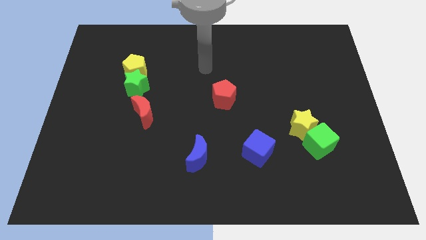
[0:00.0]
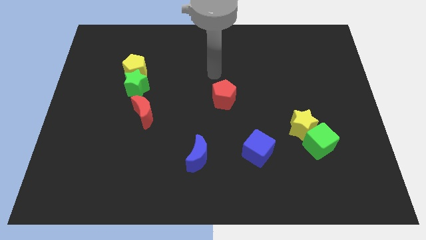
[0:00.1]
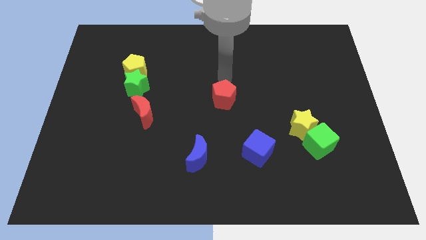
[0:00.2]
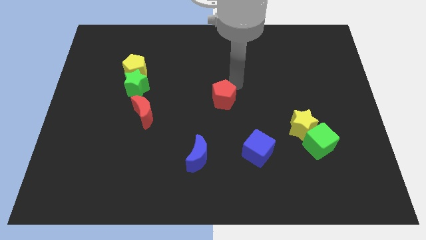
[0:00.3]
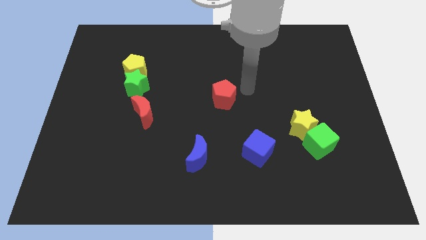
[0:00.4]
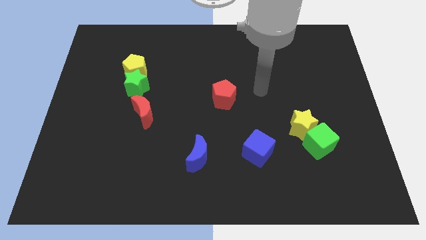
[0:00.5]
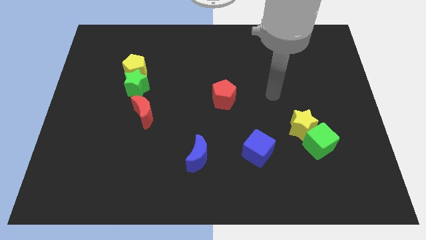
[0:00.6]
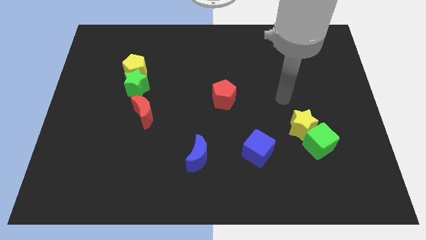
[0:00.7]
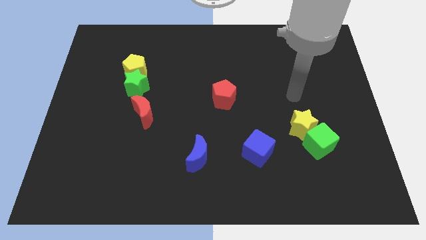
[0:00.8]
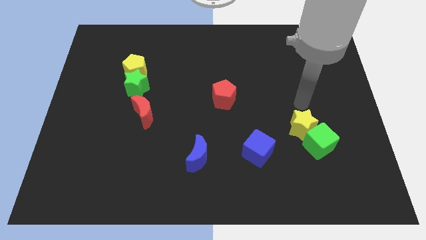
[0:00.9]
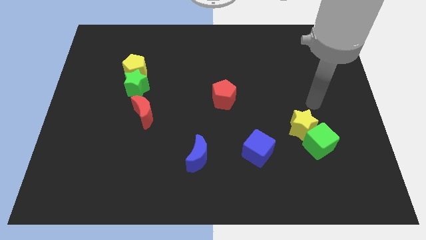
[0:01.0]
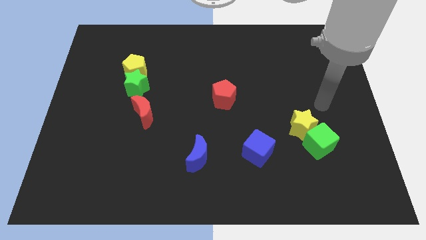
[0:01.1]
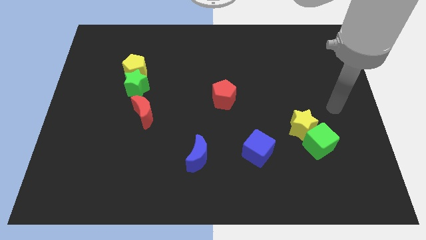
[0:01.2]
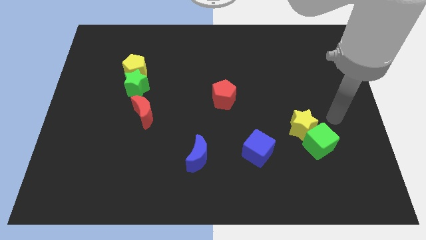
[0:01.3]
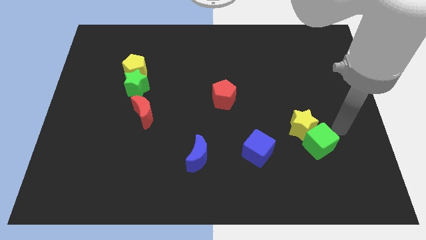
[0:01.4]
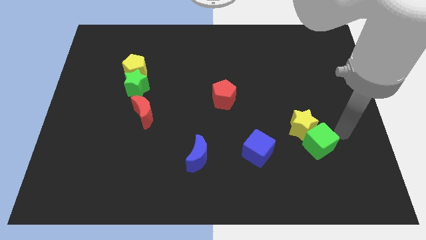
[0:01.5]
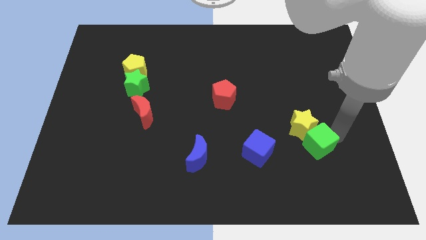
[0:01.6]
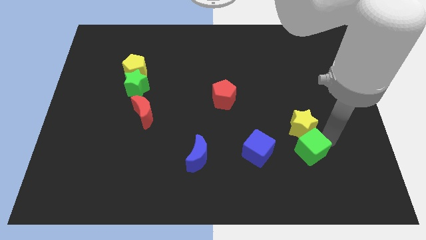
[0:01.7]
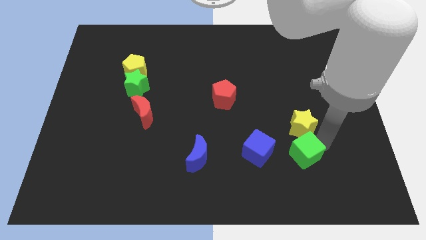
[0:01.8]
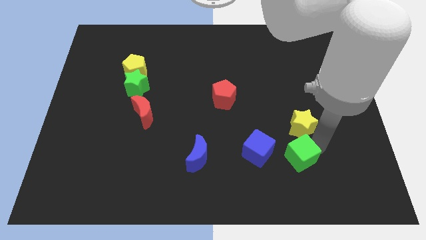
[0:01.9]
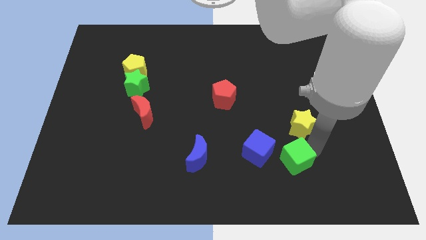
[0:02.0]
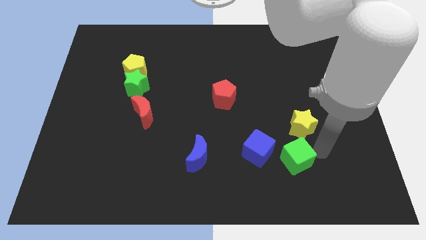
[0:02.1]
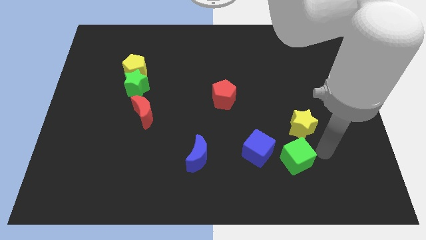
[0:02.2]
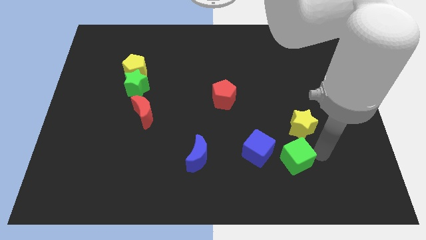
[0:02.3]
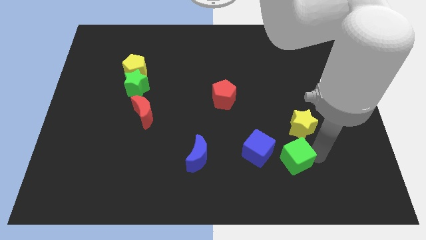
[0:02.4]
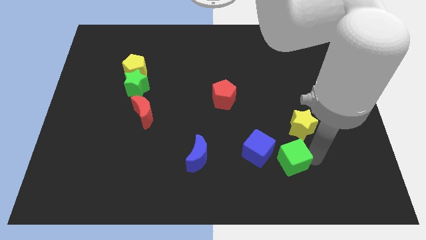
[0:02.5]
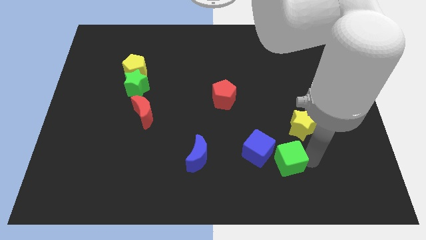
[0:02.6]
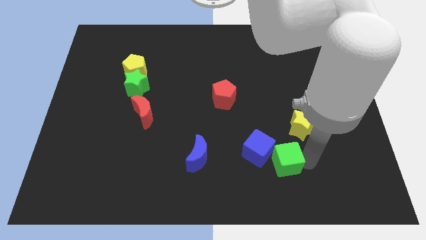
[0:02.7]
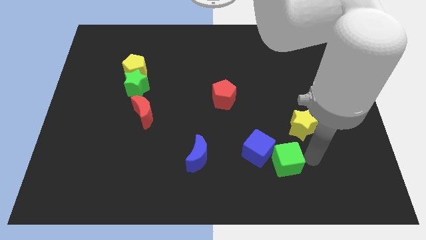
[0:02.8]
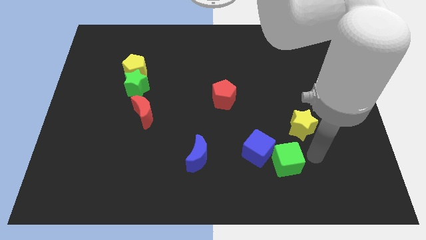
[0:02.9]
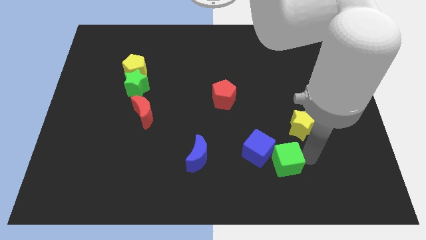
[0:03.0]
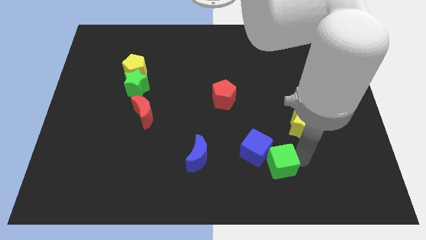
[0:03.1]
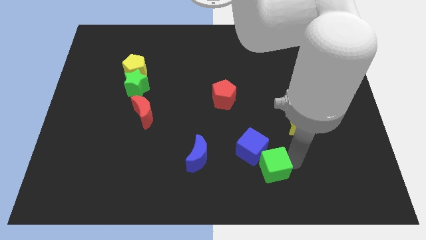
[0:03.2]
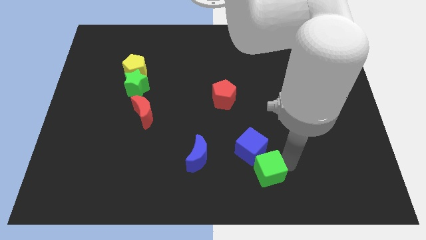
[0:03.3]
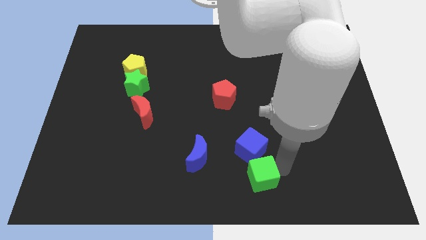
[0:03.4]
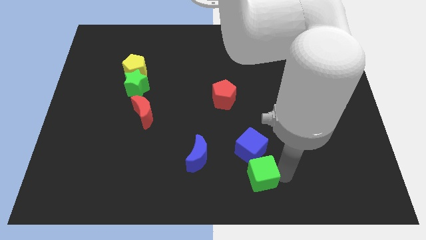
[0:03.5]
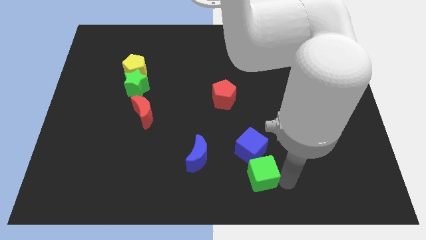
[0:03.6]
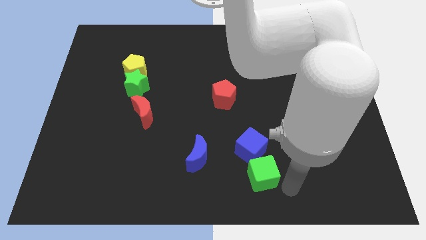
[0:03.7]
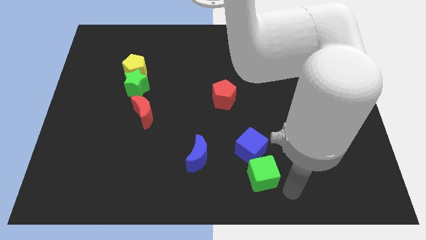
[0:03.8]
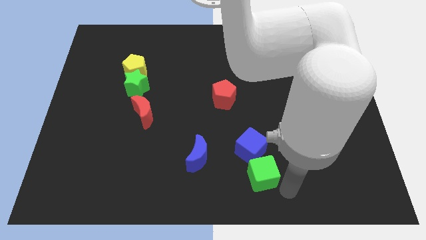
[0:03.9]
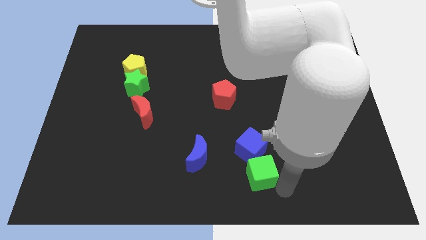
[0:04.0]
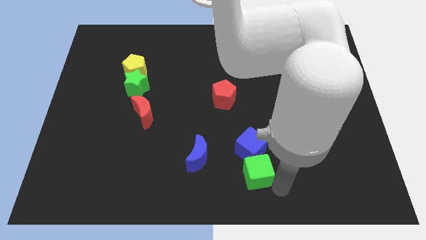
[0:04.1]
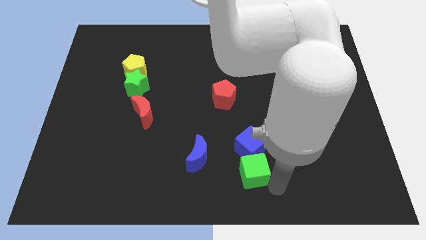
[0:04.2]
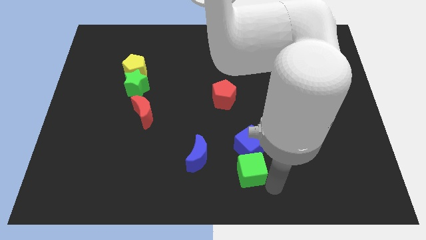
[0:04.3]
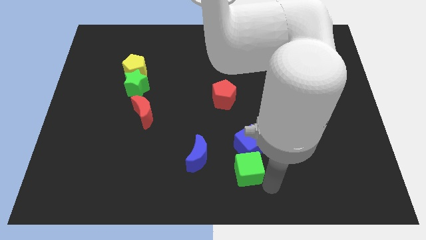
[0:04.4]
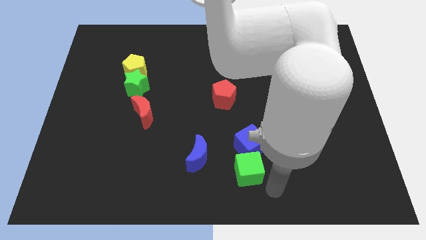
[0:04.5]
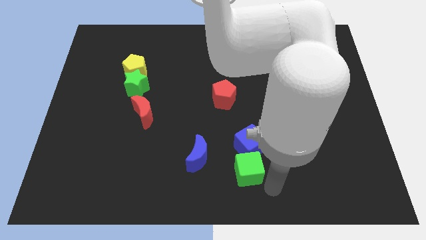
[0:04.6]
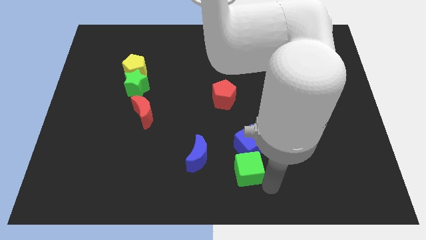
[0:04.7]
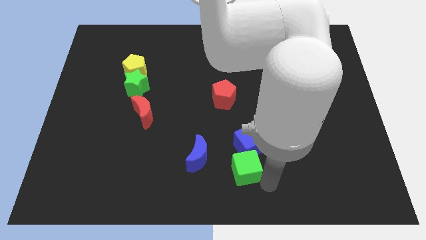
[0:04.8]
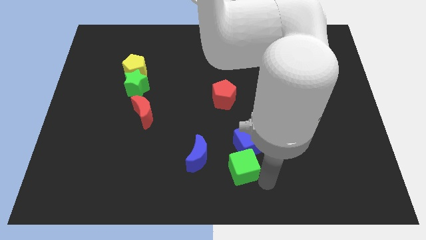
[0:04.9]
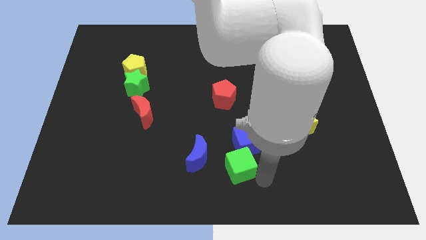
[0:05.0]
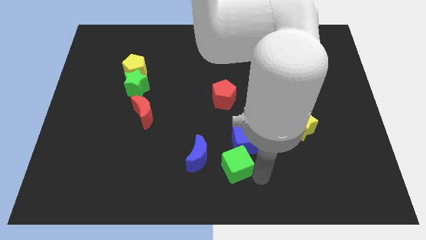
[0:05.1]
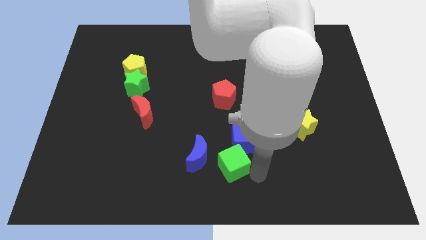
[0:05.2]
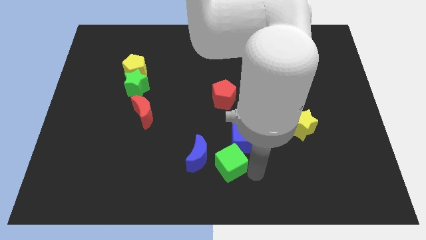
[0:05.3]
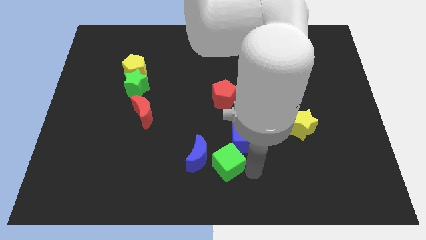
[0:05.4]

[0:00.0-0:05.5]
put the green cube towards the blue moon

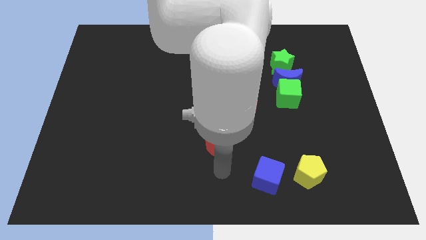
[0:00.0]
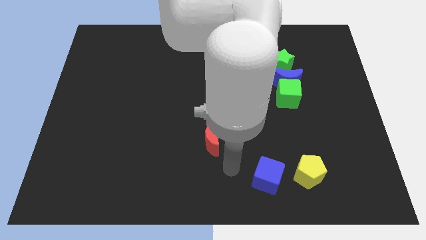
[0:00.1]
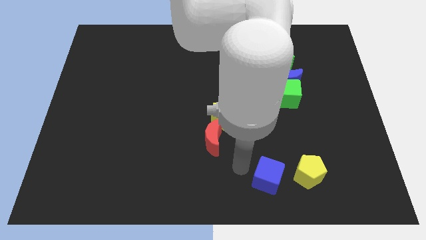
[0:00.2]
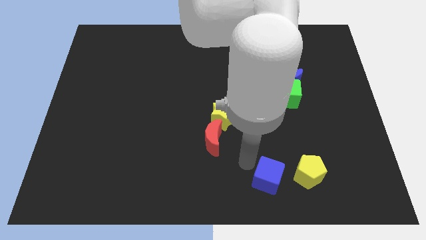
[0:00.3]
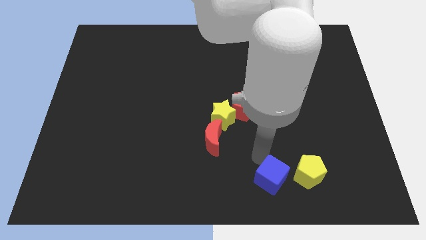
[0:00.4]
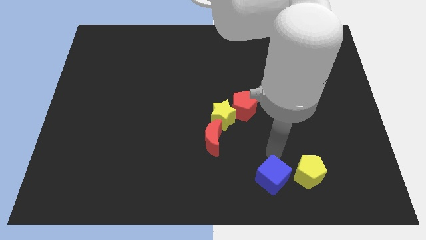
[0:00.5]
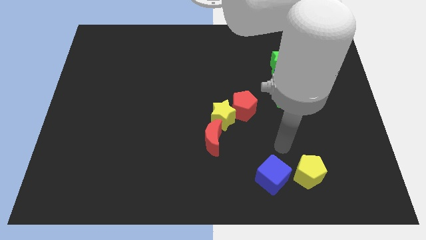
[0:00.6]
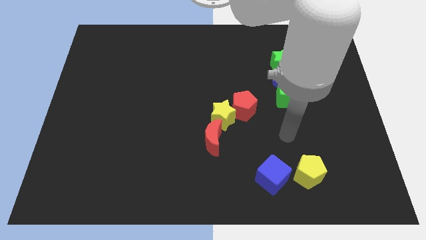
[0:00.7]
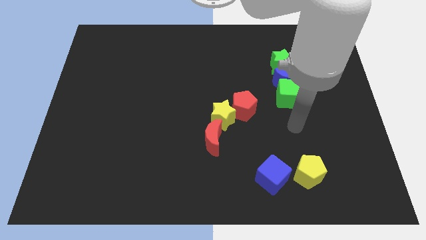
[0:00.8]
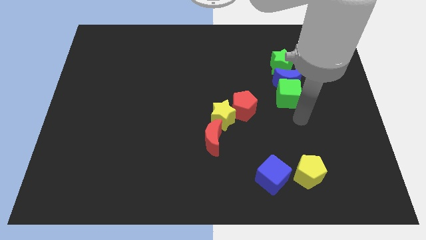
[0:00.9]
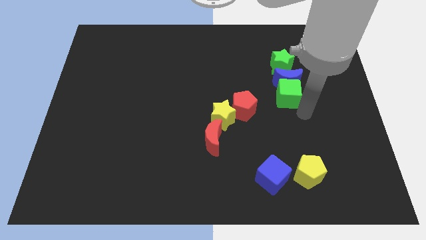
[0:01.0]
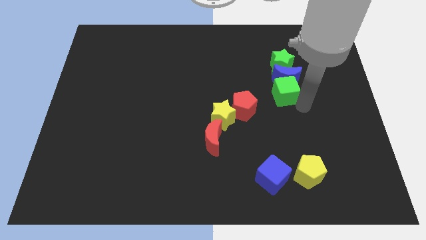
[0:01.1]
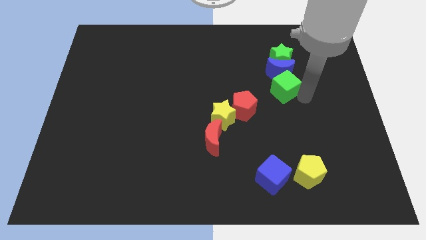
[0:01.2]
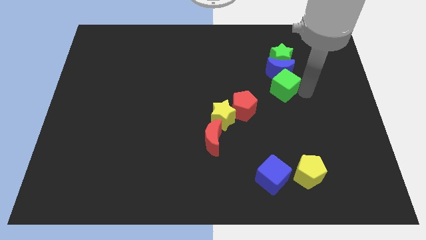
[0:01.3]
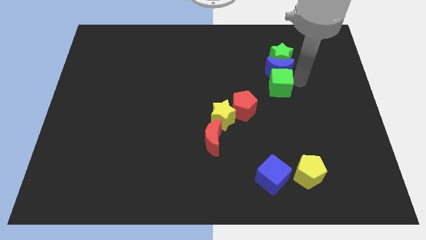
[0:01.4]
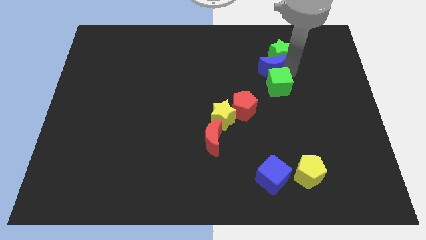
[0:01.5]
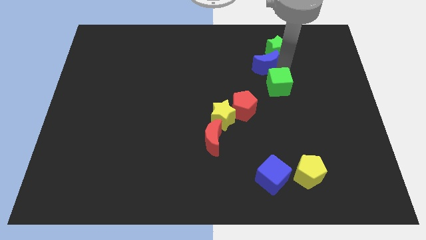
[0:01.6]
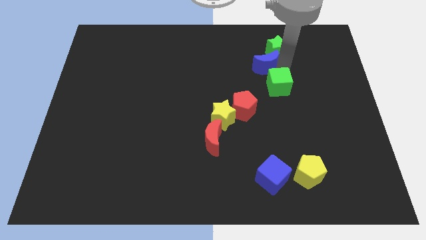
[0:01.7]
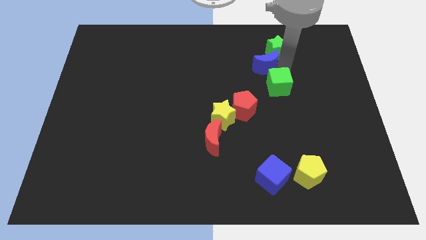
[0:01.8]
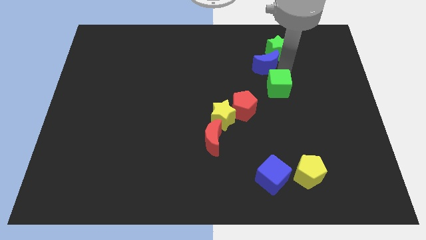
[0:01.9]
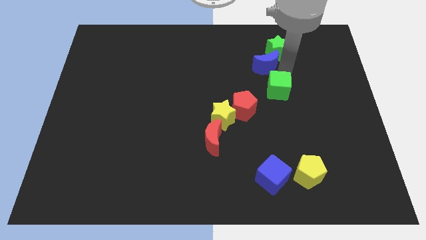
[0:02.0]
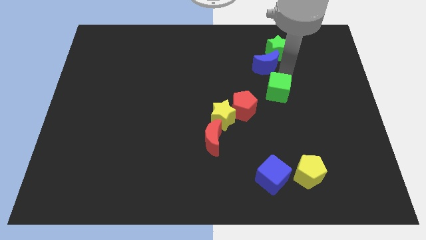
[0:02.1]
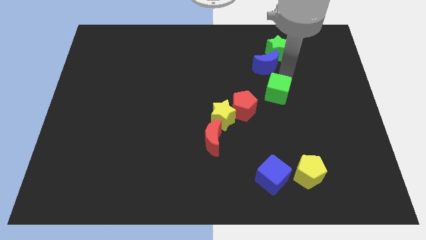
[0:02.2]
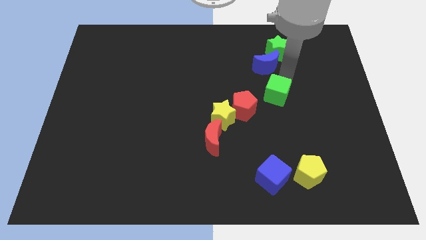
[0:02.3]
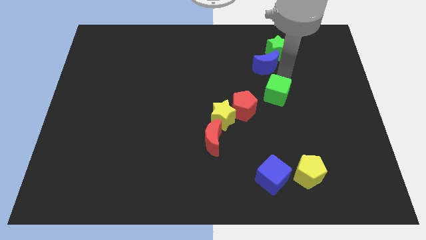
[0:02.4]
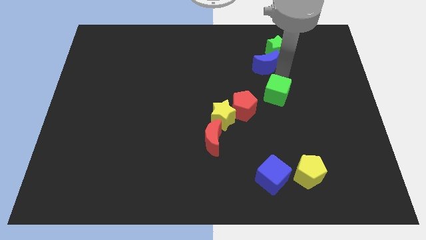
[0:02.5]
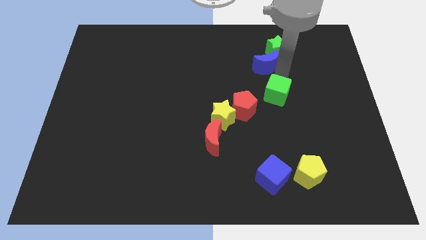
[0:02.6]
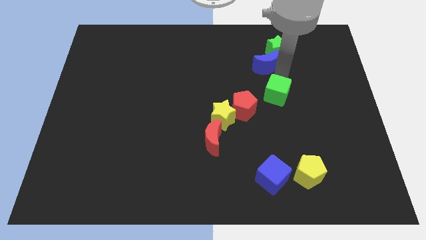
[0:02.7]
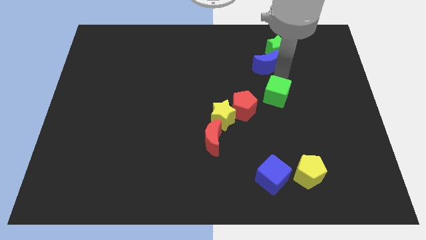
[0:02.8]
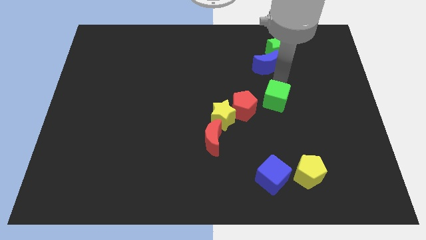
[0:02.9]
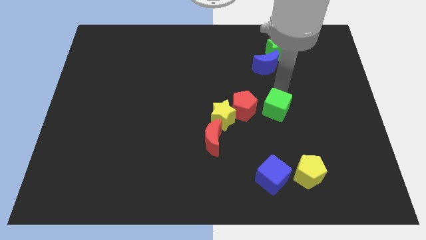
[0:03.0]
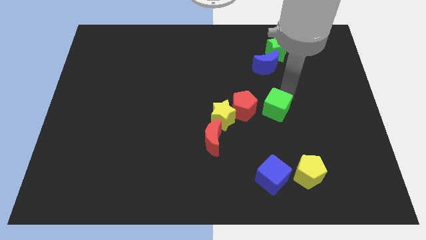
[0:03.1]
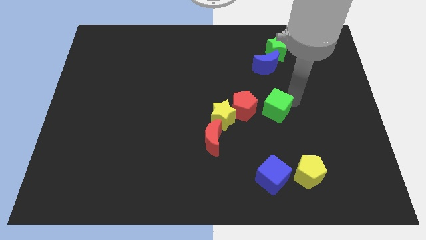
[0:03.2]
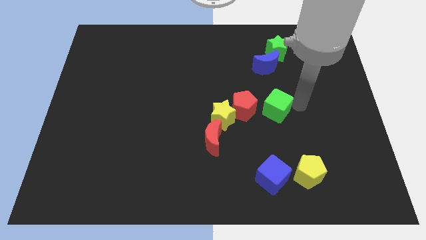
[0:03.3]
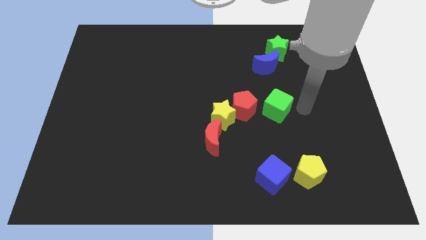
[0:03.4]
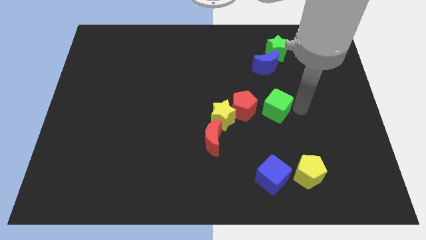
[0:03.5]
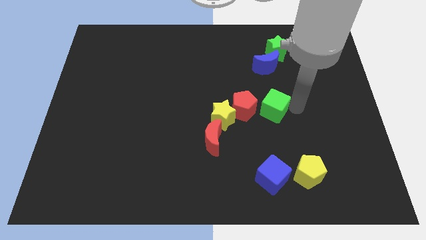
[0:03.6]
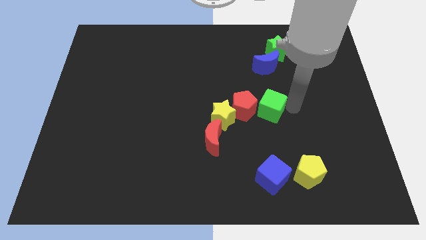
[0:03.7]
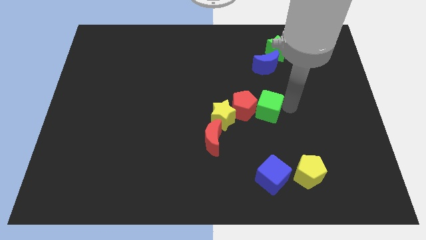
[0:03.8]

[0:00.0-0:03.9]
move the green cube to the red pentagon
